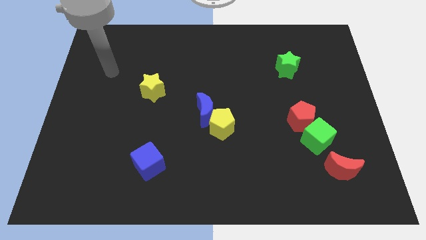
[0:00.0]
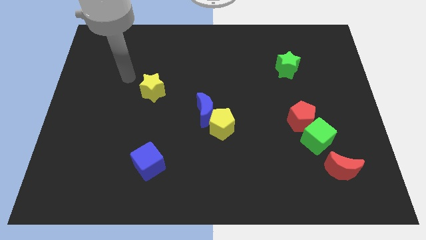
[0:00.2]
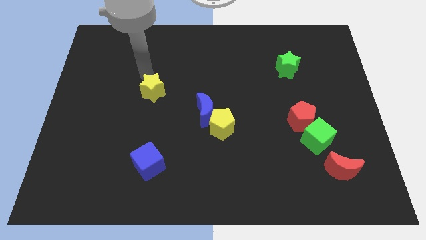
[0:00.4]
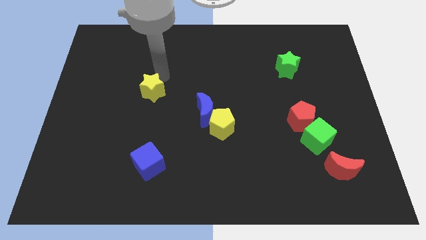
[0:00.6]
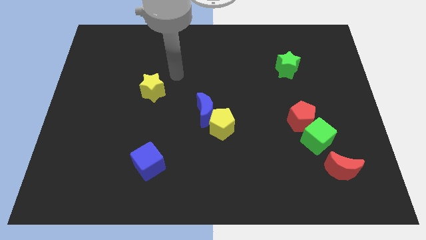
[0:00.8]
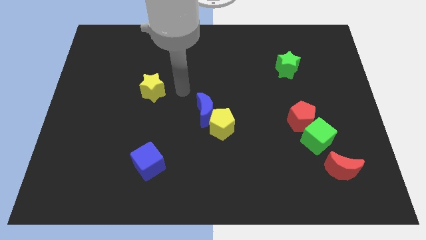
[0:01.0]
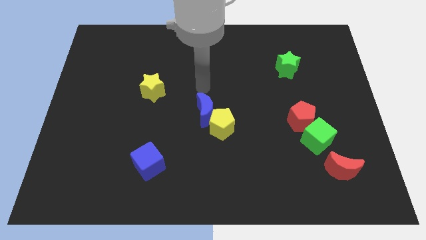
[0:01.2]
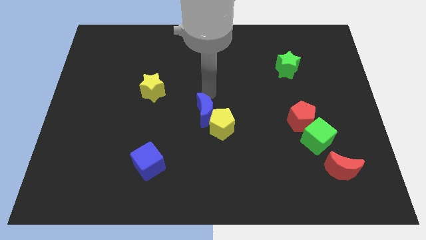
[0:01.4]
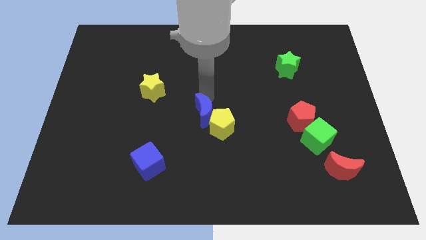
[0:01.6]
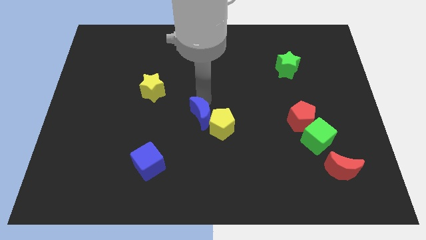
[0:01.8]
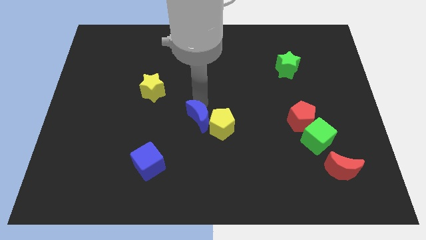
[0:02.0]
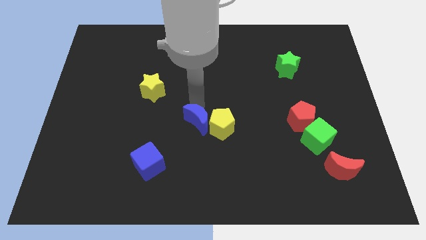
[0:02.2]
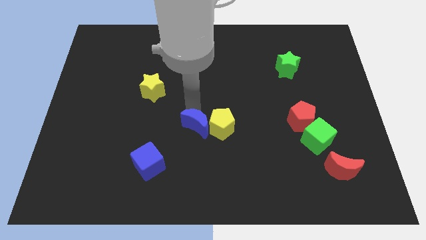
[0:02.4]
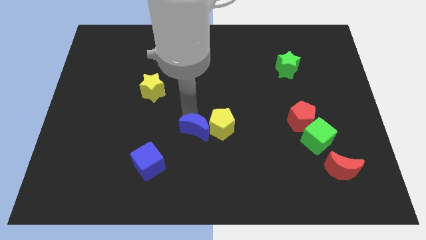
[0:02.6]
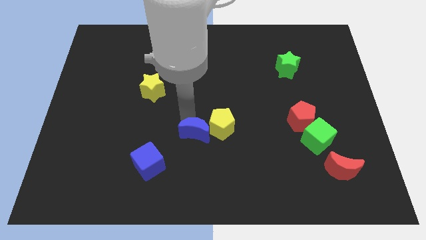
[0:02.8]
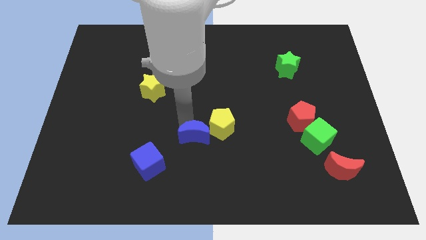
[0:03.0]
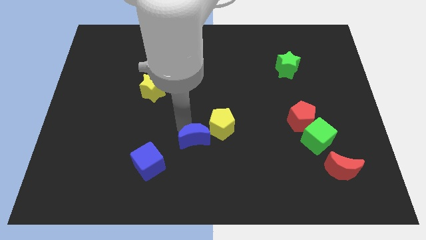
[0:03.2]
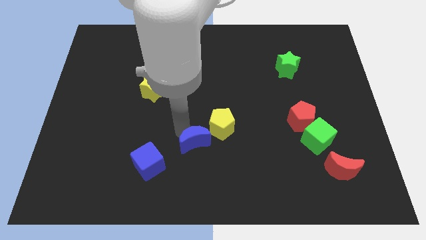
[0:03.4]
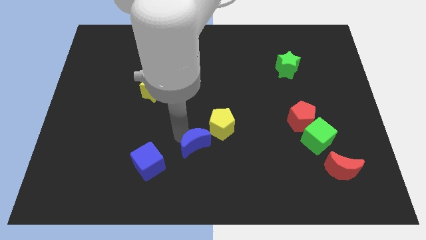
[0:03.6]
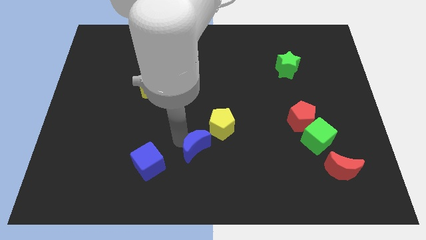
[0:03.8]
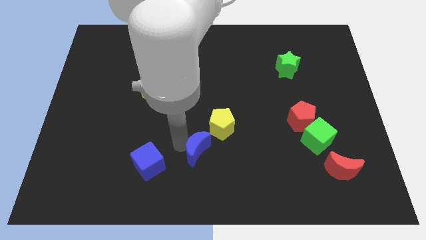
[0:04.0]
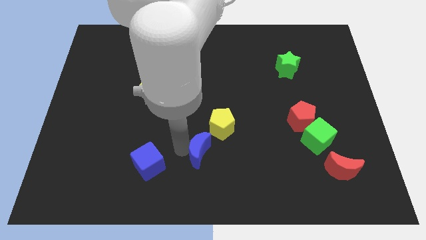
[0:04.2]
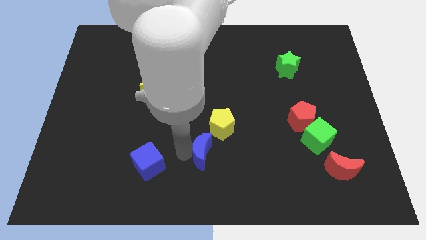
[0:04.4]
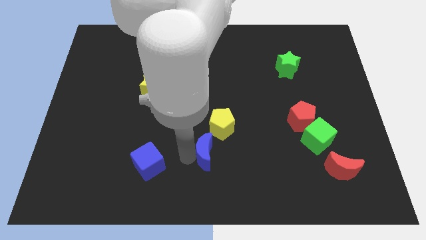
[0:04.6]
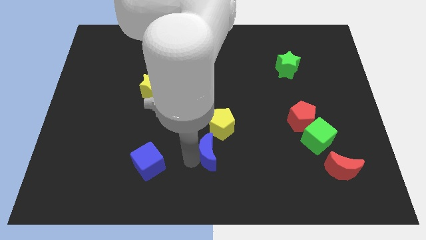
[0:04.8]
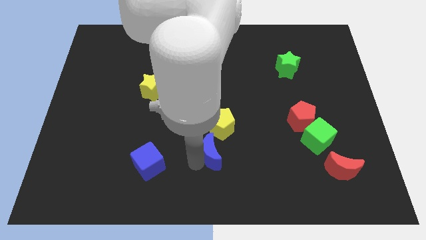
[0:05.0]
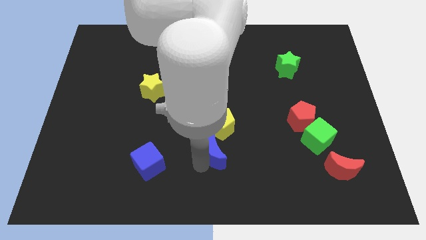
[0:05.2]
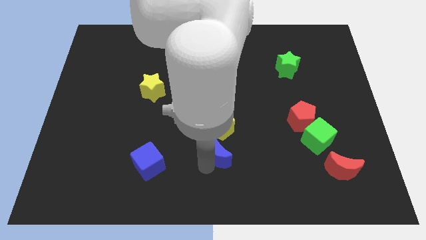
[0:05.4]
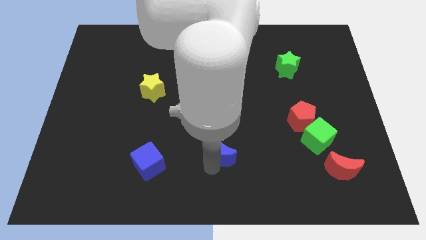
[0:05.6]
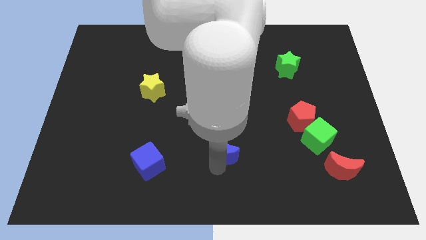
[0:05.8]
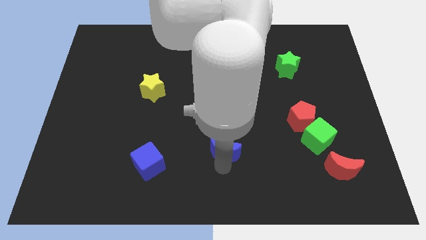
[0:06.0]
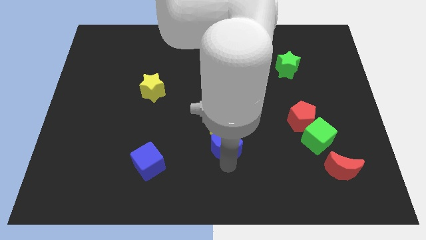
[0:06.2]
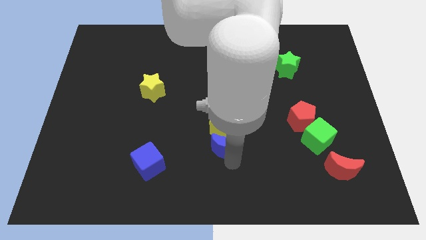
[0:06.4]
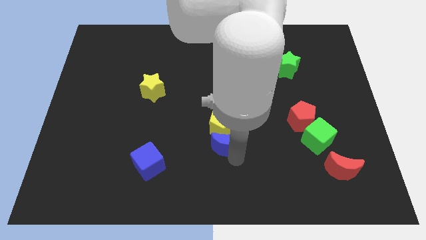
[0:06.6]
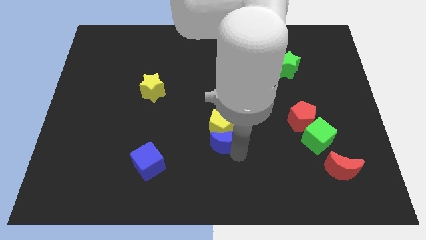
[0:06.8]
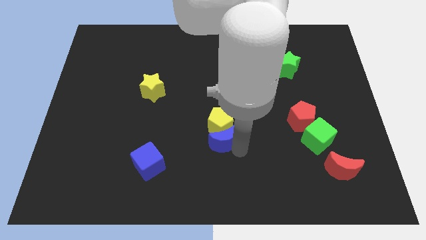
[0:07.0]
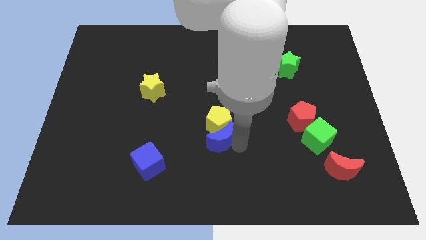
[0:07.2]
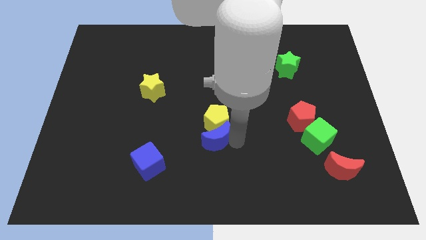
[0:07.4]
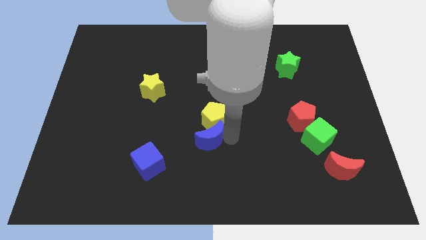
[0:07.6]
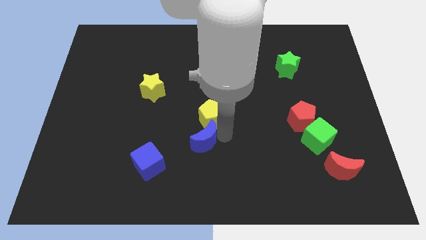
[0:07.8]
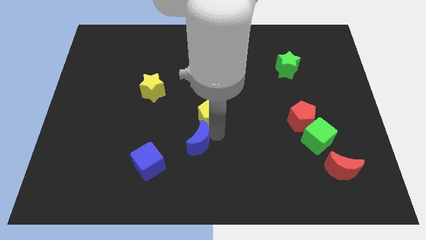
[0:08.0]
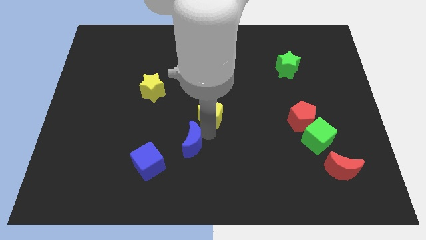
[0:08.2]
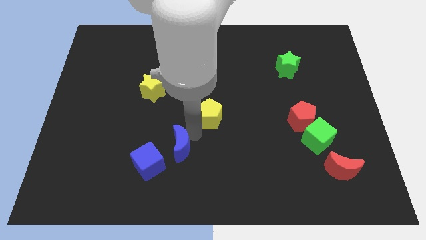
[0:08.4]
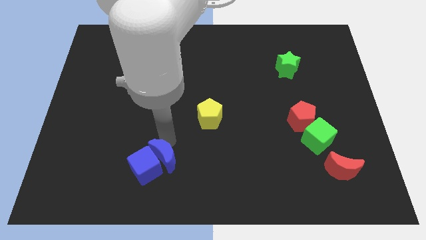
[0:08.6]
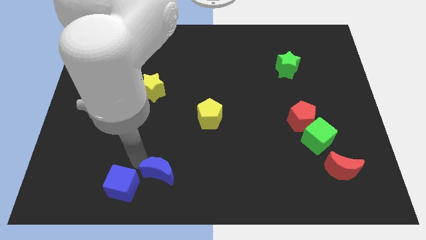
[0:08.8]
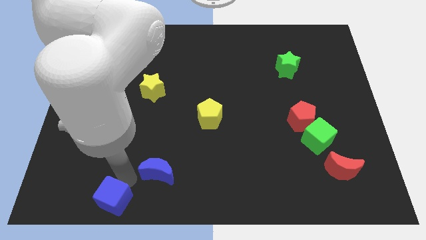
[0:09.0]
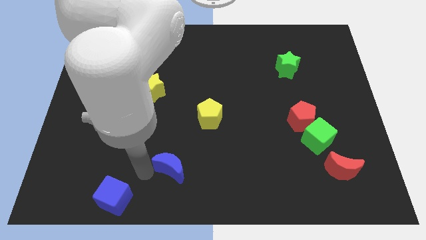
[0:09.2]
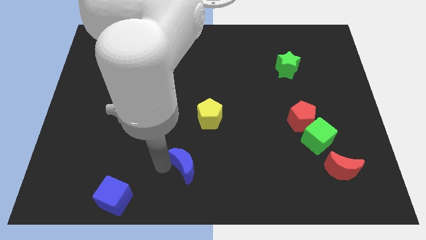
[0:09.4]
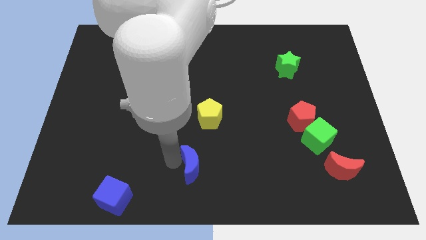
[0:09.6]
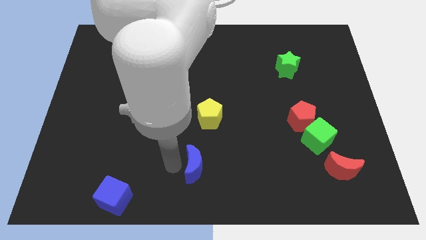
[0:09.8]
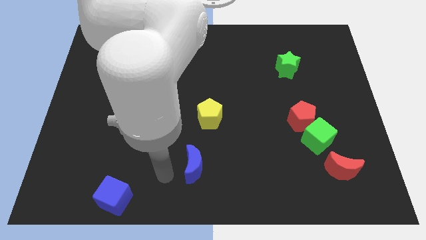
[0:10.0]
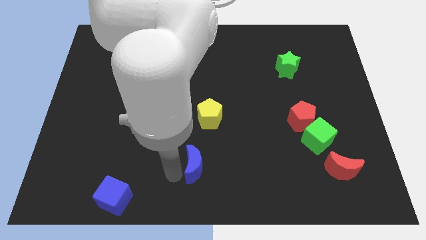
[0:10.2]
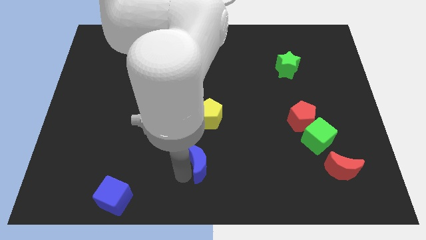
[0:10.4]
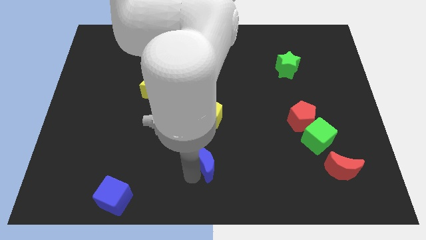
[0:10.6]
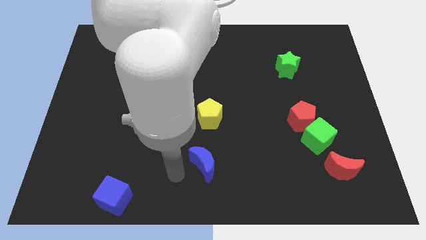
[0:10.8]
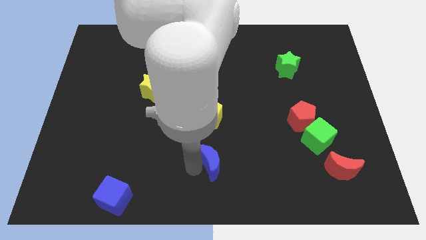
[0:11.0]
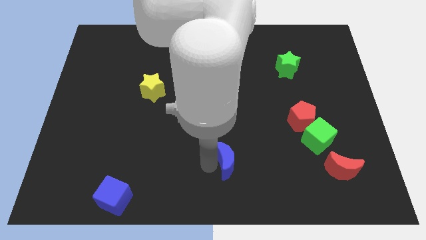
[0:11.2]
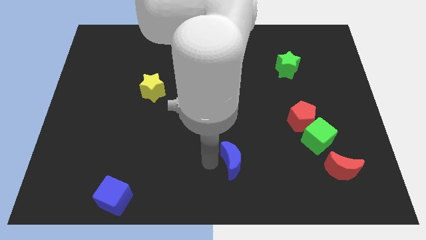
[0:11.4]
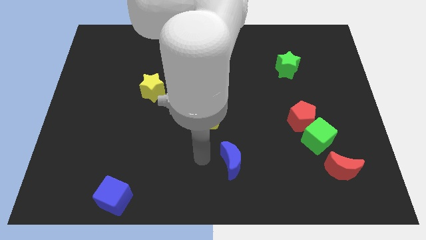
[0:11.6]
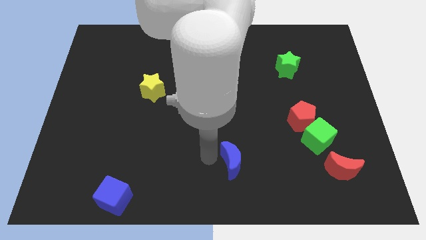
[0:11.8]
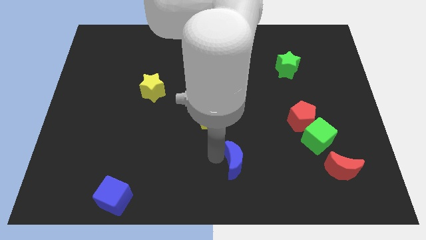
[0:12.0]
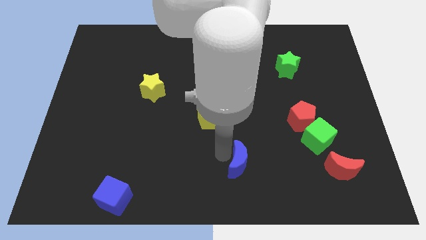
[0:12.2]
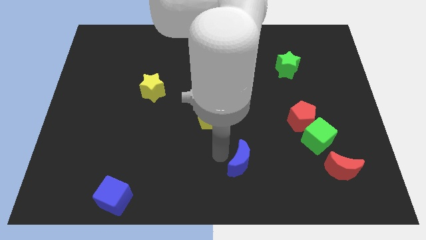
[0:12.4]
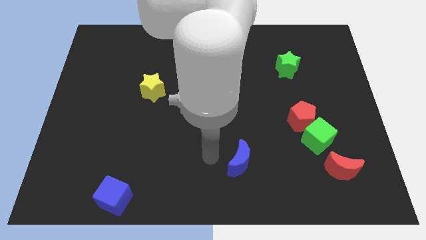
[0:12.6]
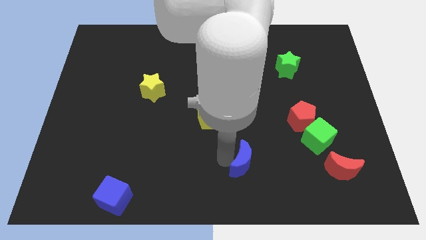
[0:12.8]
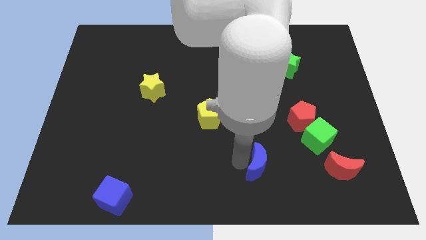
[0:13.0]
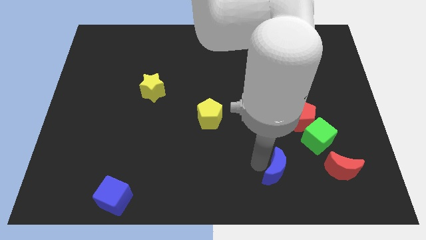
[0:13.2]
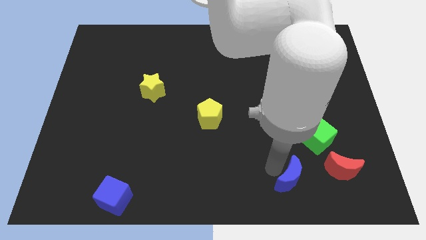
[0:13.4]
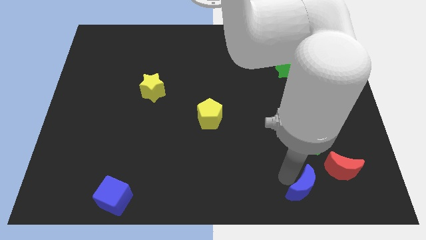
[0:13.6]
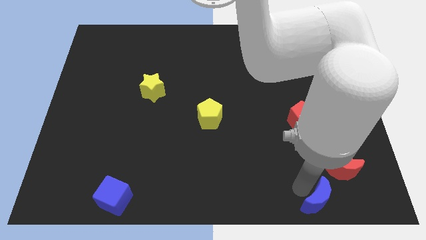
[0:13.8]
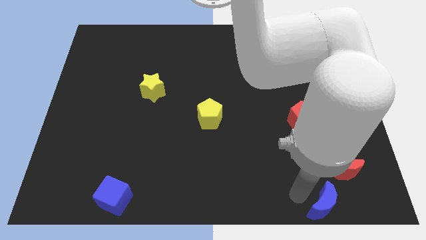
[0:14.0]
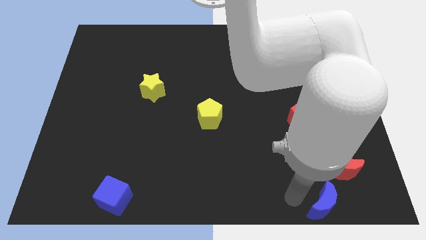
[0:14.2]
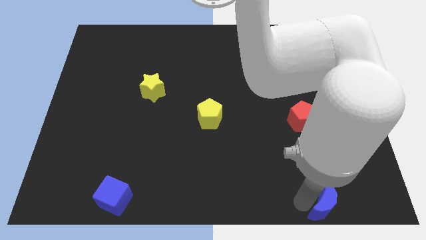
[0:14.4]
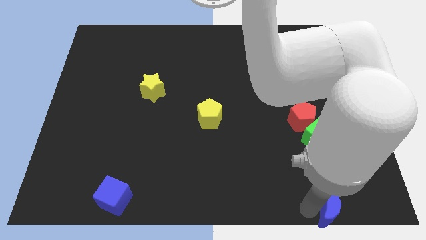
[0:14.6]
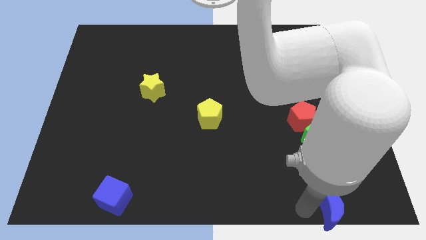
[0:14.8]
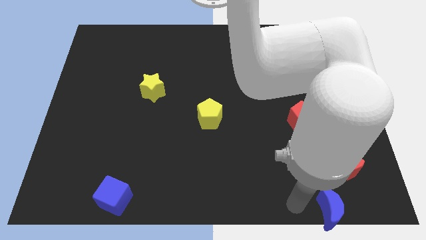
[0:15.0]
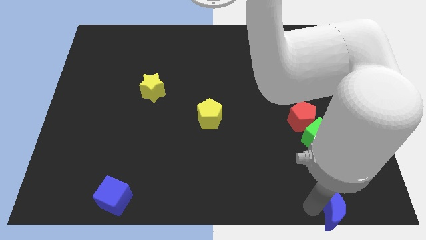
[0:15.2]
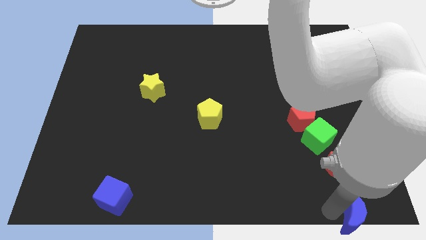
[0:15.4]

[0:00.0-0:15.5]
push the blue moon to the bottom right corner
